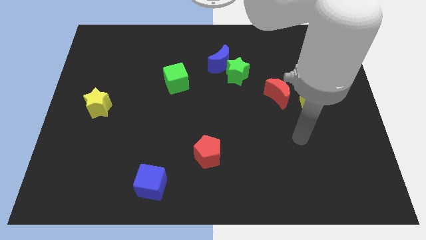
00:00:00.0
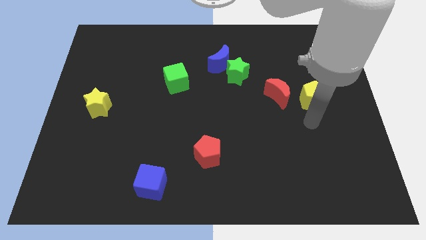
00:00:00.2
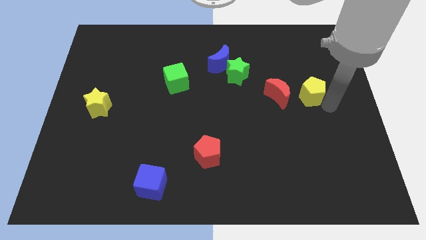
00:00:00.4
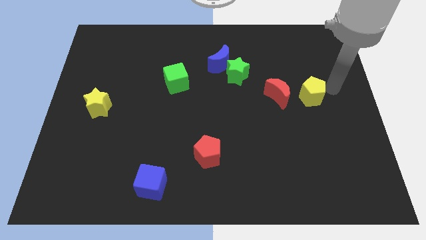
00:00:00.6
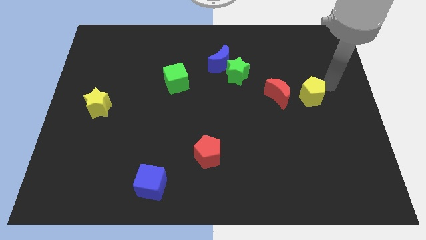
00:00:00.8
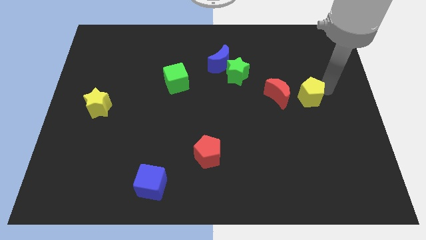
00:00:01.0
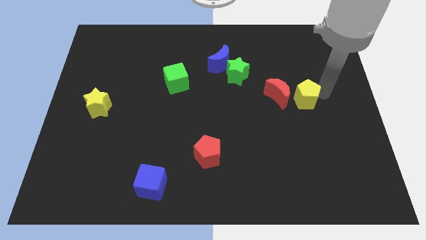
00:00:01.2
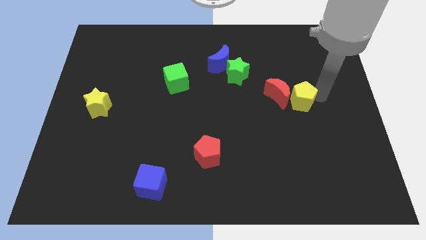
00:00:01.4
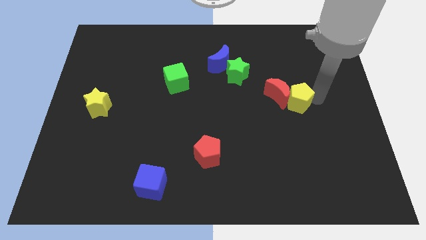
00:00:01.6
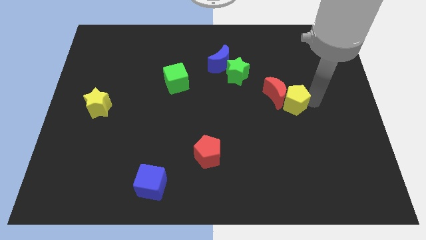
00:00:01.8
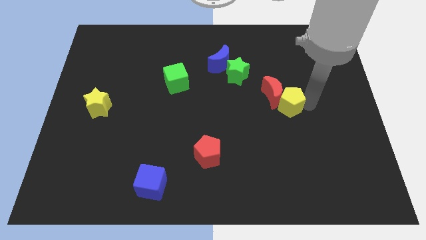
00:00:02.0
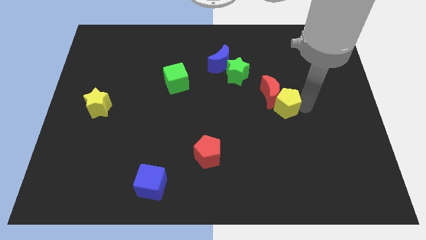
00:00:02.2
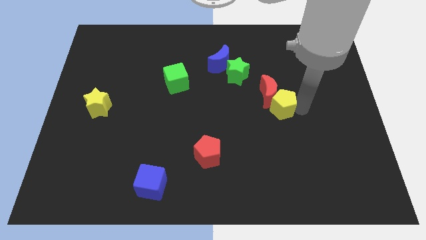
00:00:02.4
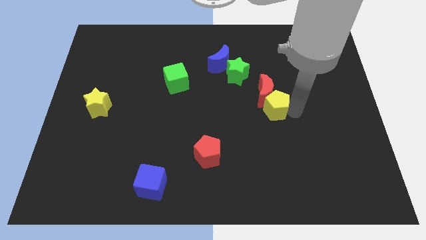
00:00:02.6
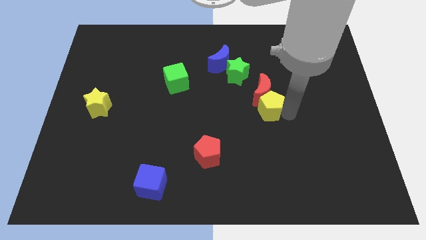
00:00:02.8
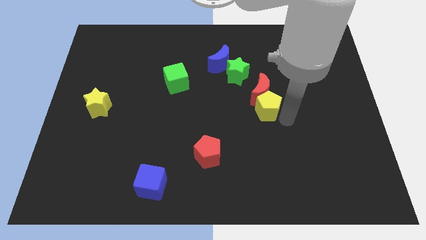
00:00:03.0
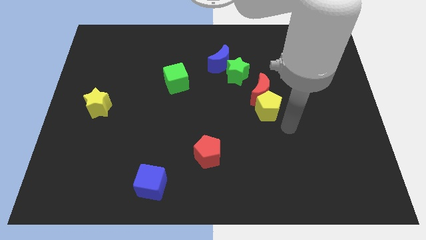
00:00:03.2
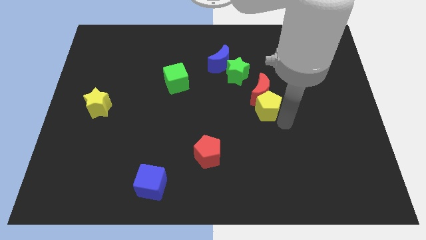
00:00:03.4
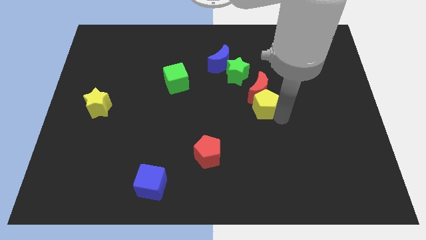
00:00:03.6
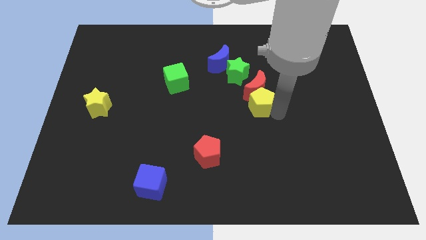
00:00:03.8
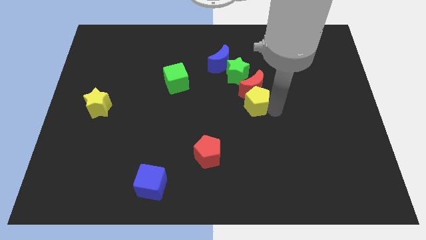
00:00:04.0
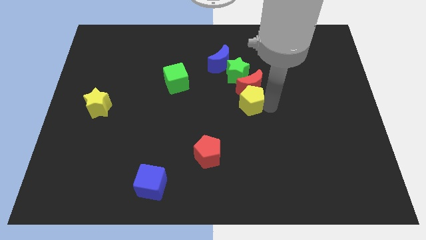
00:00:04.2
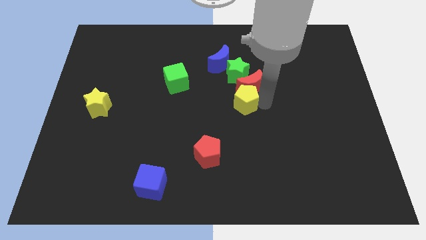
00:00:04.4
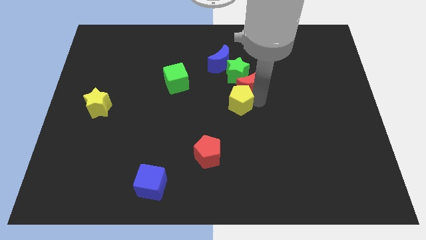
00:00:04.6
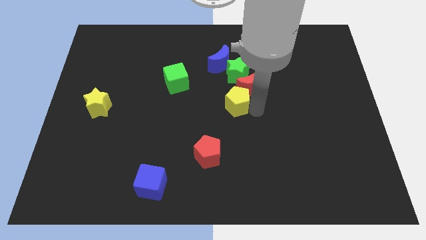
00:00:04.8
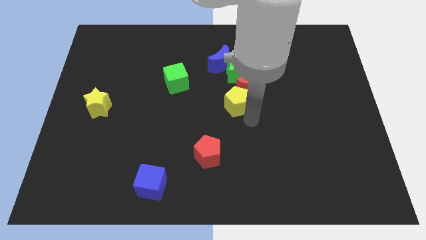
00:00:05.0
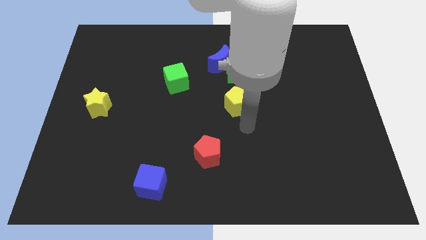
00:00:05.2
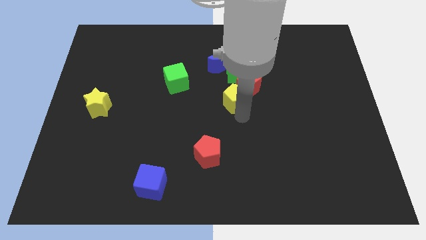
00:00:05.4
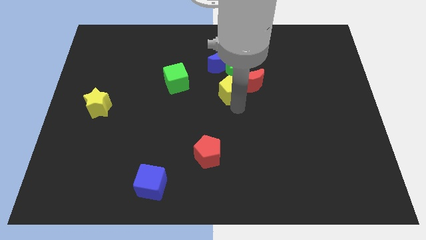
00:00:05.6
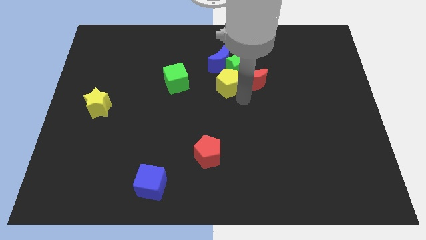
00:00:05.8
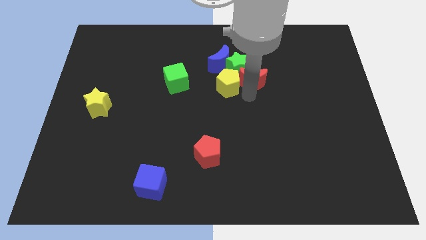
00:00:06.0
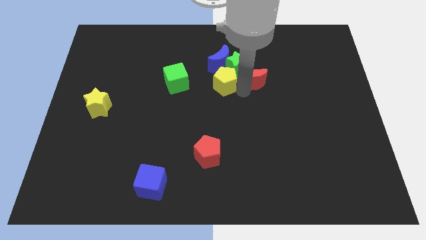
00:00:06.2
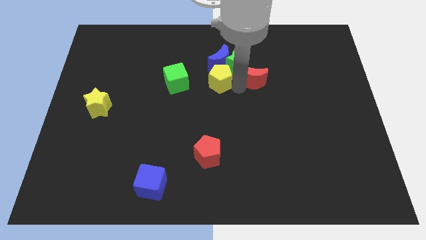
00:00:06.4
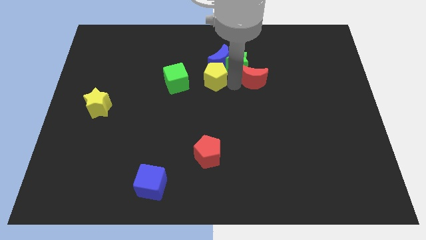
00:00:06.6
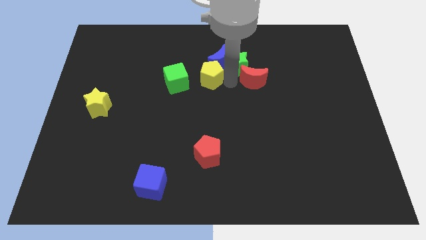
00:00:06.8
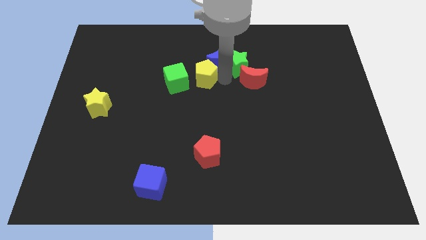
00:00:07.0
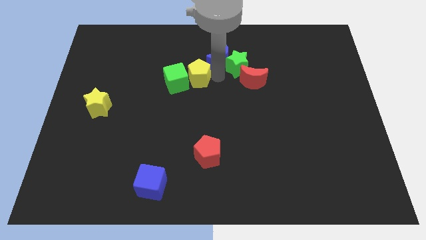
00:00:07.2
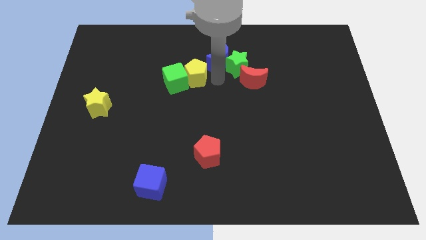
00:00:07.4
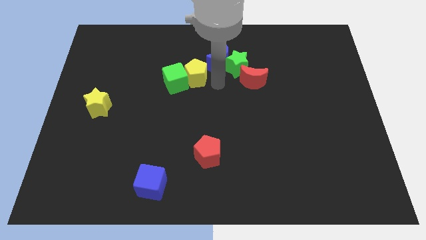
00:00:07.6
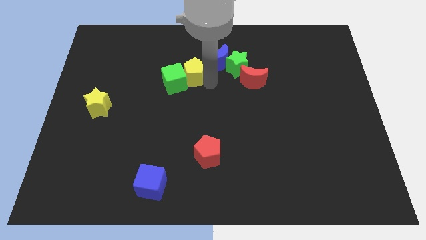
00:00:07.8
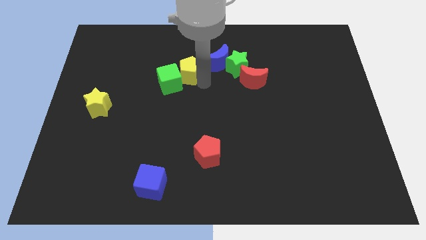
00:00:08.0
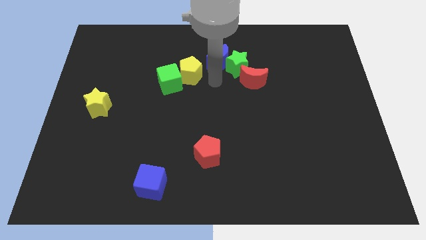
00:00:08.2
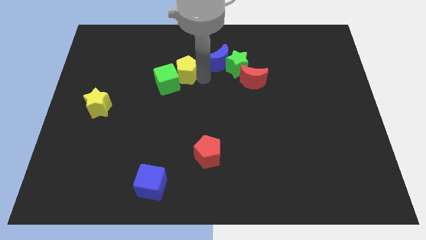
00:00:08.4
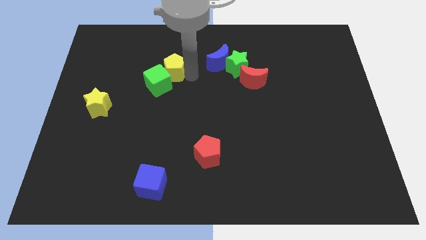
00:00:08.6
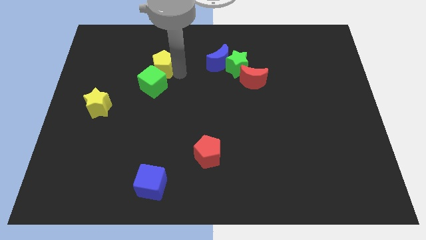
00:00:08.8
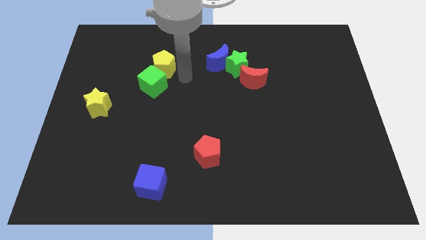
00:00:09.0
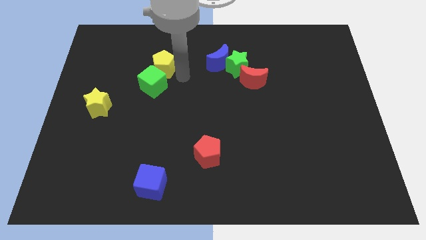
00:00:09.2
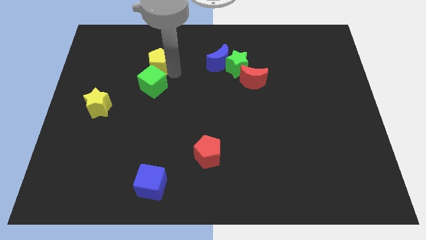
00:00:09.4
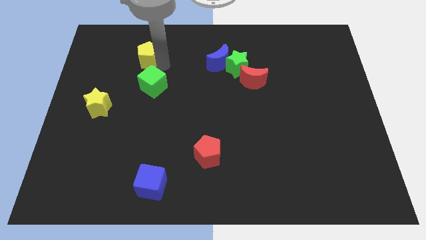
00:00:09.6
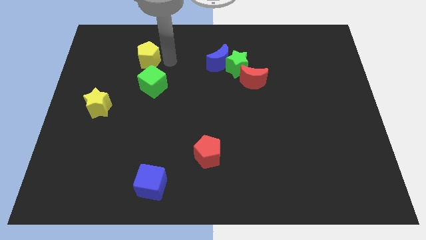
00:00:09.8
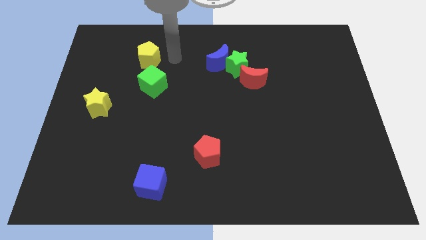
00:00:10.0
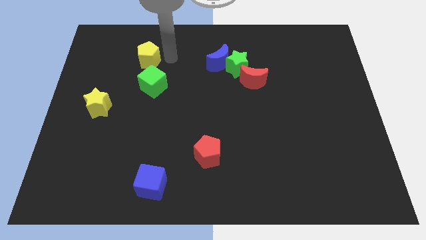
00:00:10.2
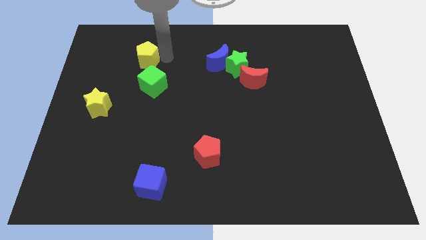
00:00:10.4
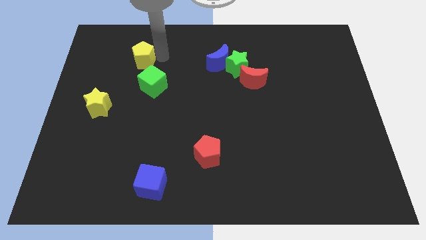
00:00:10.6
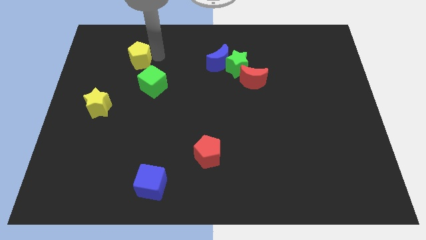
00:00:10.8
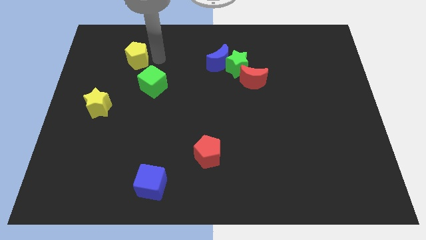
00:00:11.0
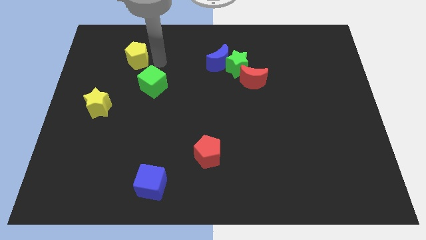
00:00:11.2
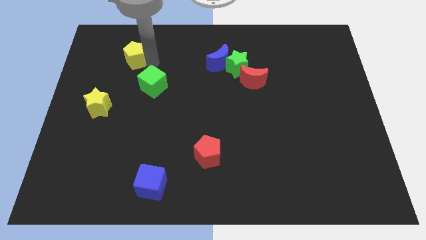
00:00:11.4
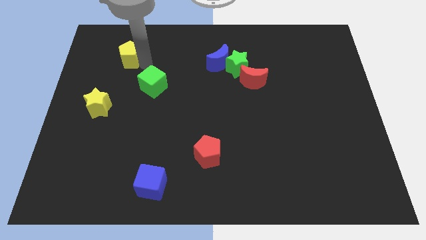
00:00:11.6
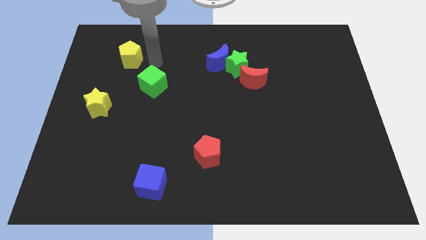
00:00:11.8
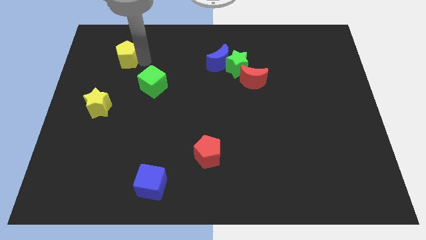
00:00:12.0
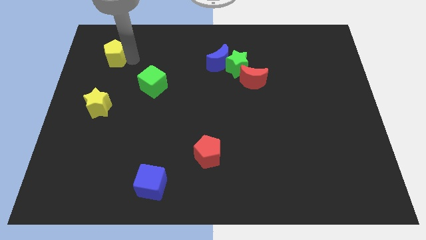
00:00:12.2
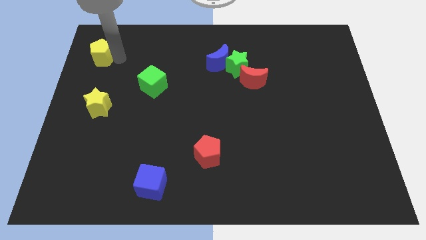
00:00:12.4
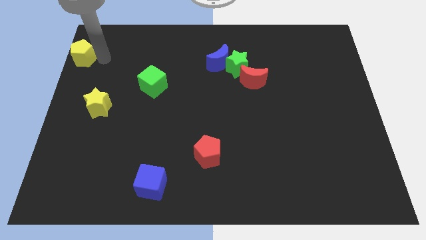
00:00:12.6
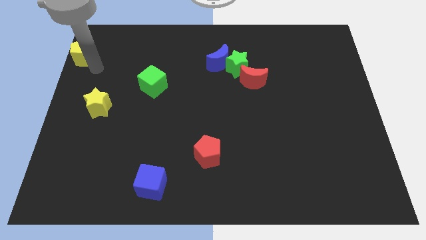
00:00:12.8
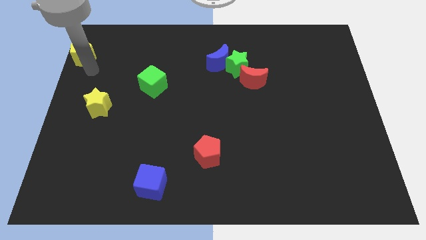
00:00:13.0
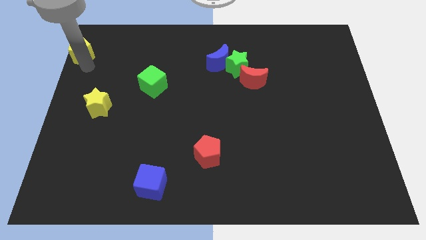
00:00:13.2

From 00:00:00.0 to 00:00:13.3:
slide the yellow pentagon to the top left

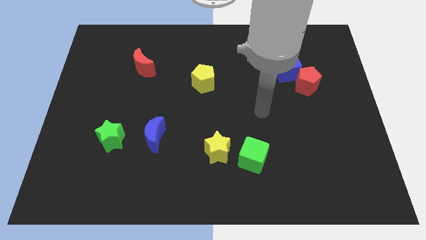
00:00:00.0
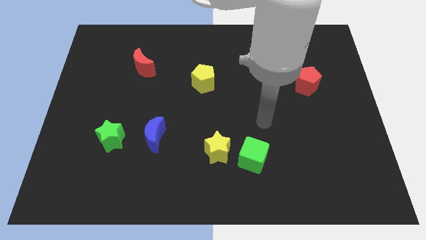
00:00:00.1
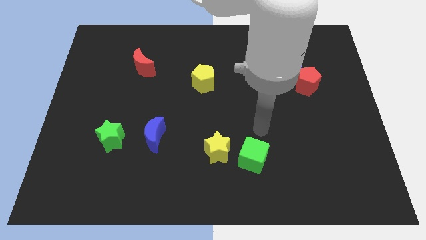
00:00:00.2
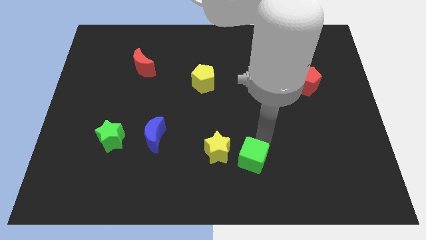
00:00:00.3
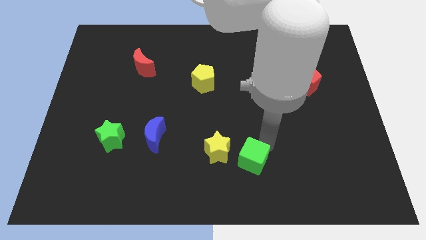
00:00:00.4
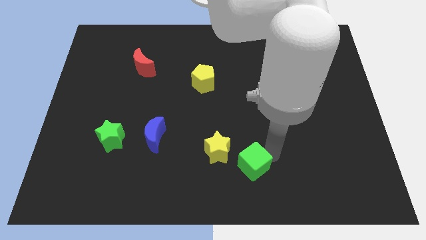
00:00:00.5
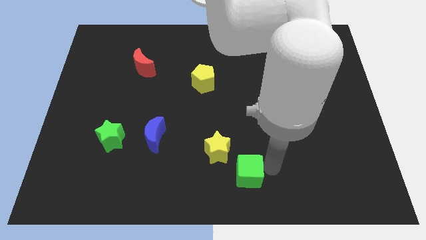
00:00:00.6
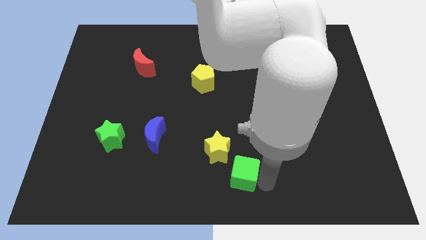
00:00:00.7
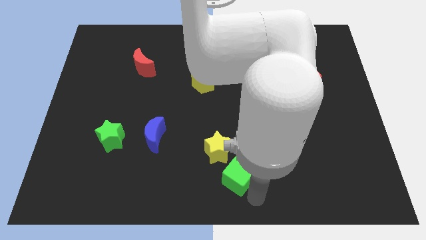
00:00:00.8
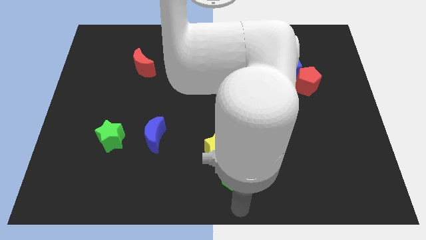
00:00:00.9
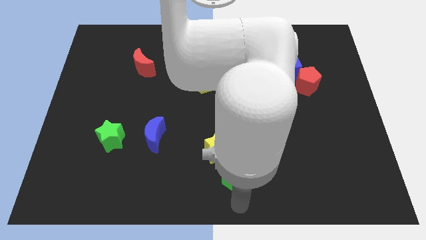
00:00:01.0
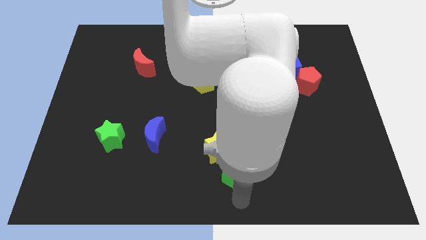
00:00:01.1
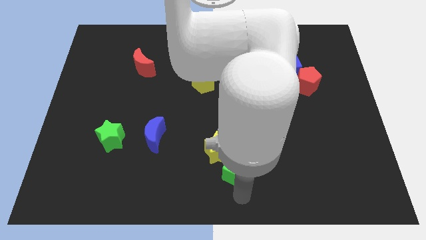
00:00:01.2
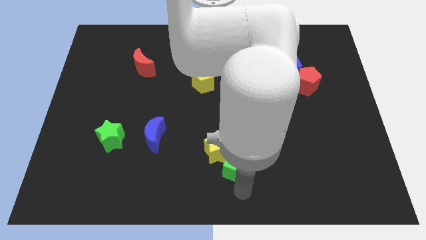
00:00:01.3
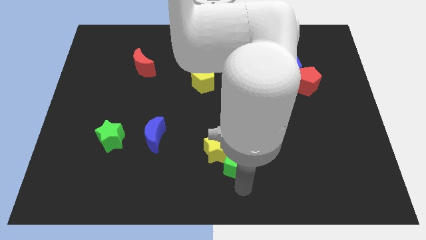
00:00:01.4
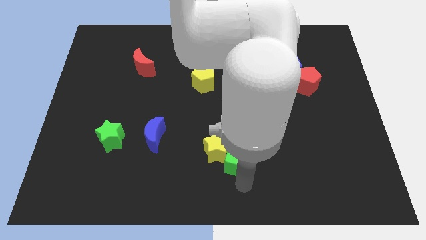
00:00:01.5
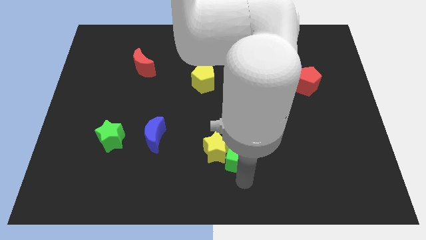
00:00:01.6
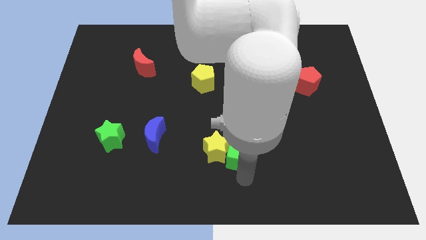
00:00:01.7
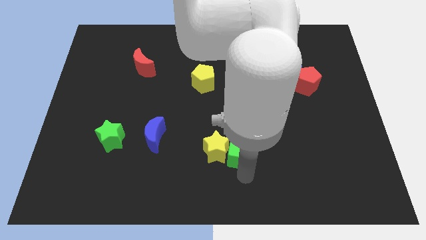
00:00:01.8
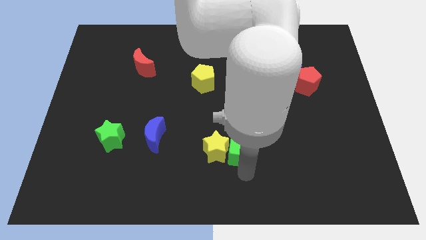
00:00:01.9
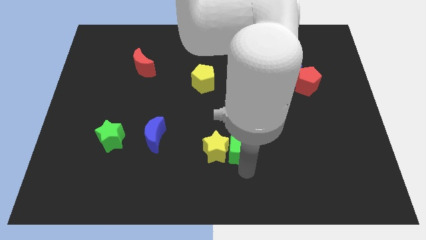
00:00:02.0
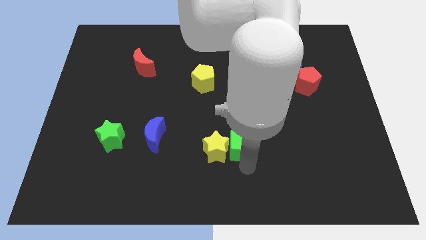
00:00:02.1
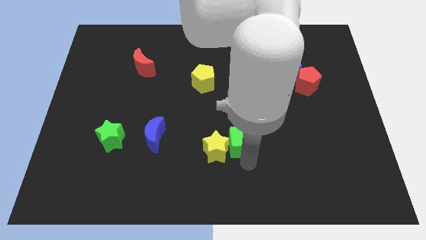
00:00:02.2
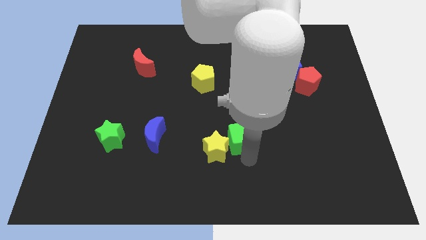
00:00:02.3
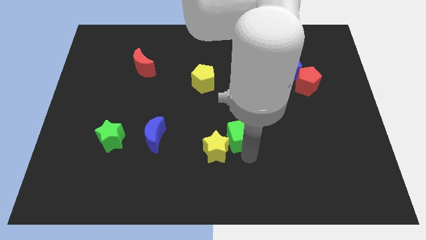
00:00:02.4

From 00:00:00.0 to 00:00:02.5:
put the green cube to the center of the board
